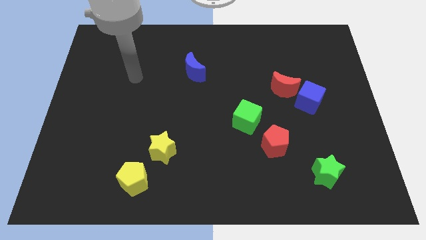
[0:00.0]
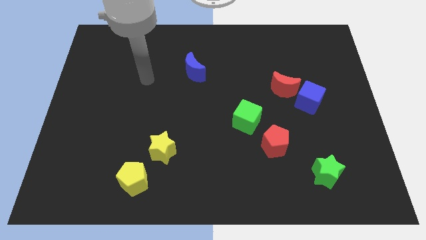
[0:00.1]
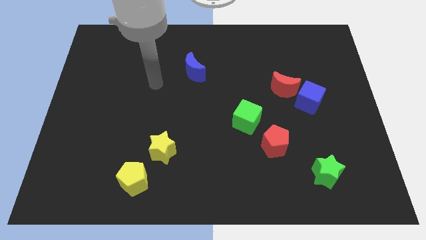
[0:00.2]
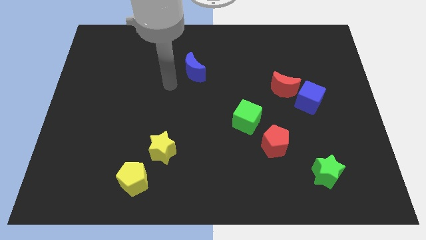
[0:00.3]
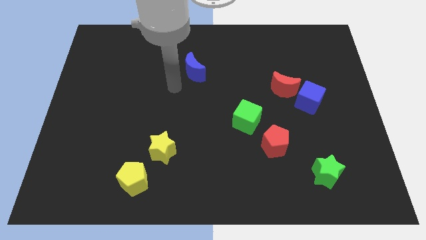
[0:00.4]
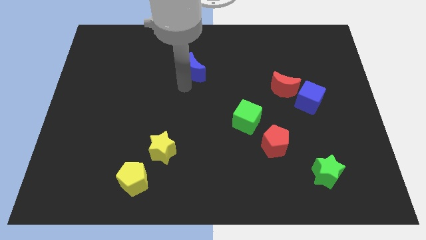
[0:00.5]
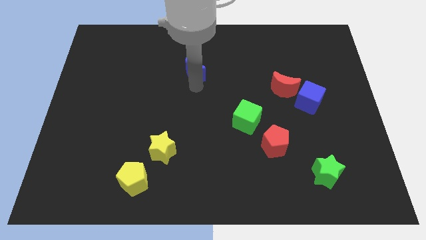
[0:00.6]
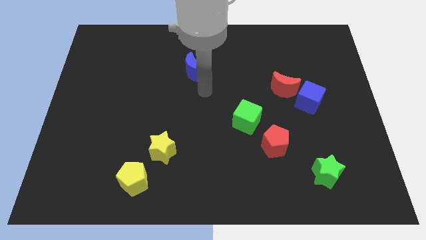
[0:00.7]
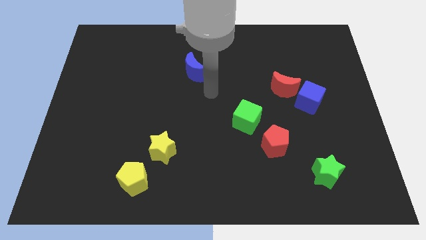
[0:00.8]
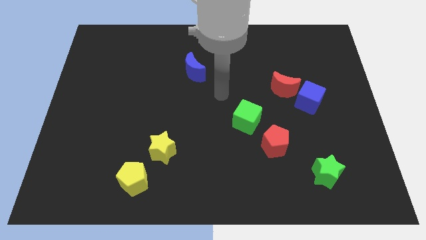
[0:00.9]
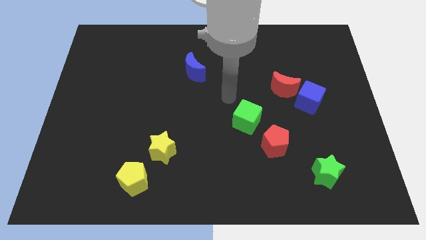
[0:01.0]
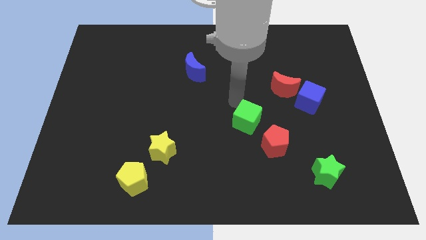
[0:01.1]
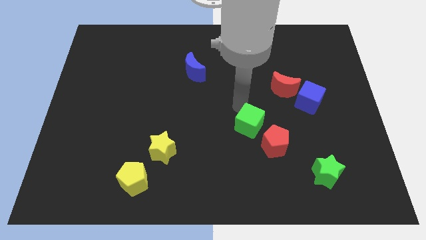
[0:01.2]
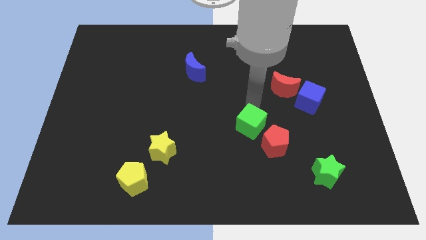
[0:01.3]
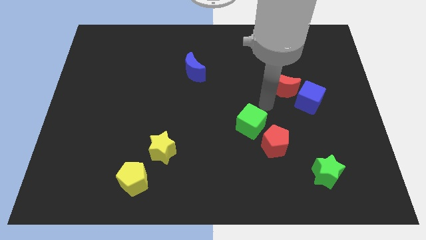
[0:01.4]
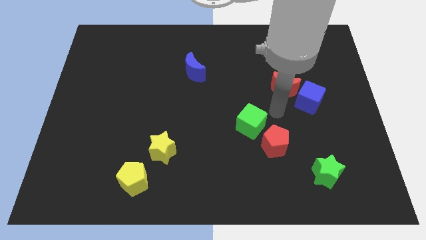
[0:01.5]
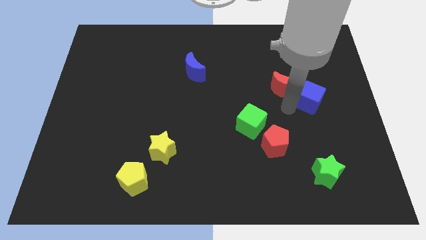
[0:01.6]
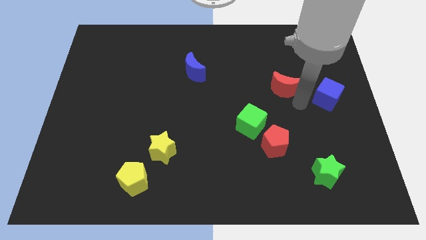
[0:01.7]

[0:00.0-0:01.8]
separate the red moon from the blue cube

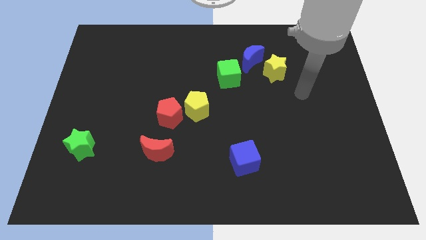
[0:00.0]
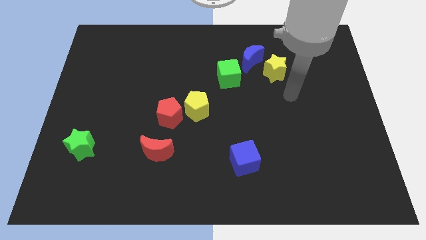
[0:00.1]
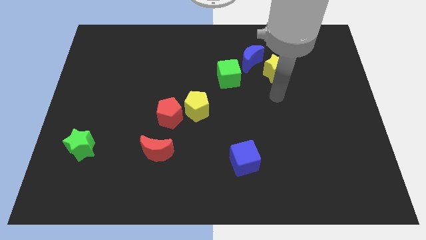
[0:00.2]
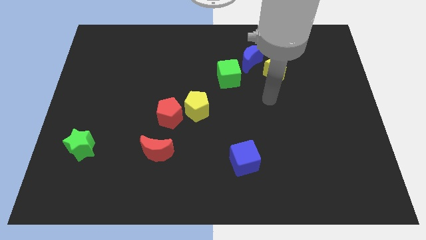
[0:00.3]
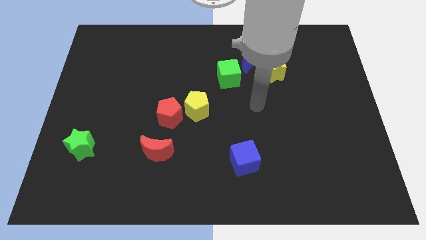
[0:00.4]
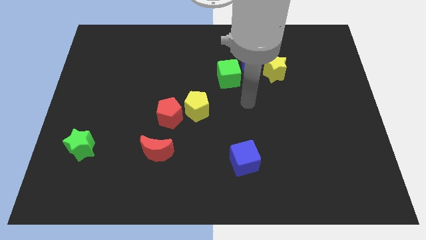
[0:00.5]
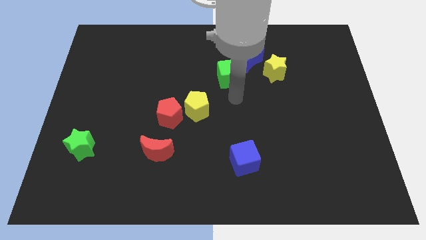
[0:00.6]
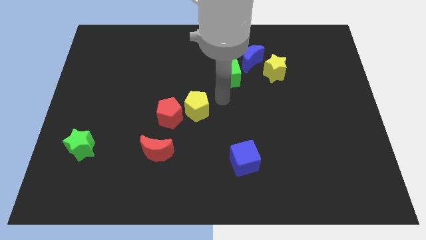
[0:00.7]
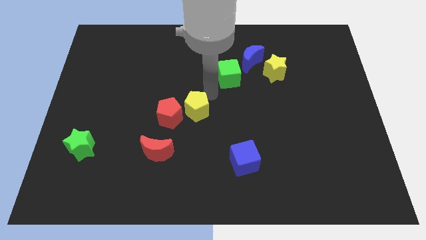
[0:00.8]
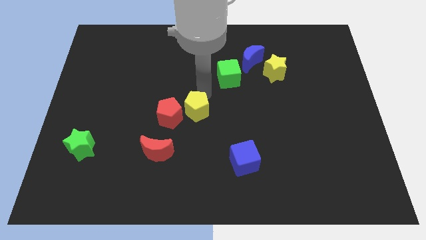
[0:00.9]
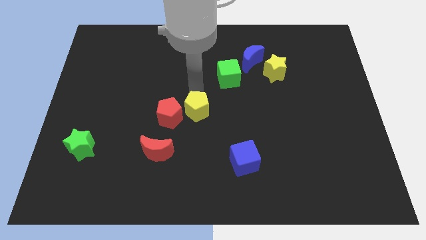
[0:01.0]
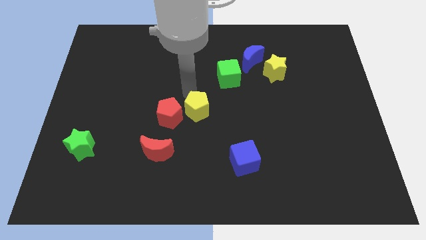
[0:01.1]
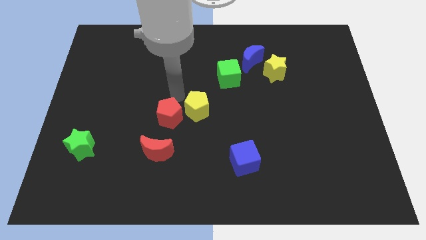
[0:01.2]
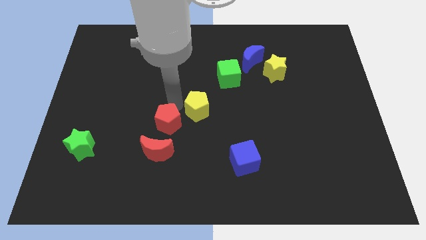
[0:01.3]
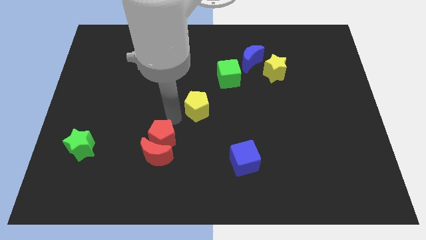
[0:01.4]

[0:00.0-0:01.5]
pull the yellow pentagon apart from the red pentagon

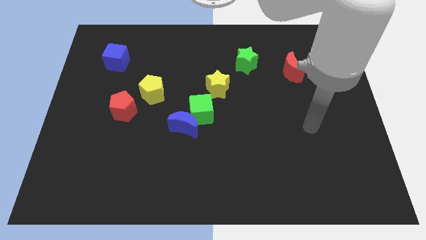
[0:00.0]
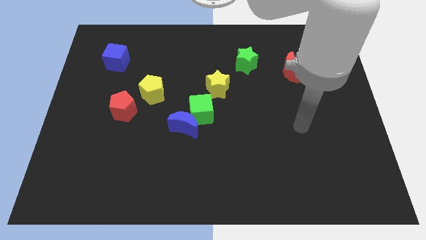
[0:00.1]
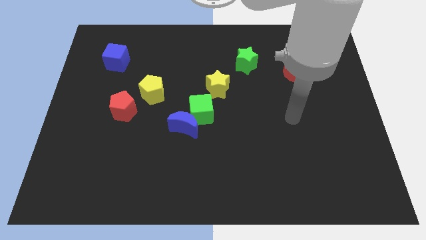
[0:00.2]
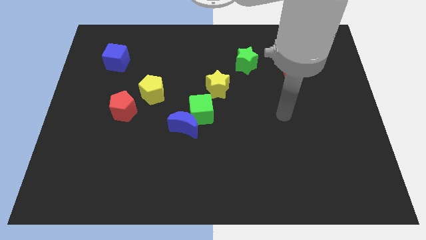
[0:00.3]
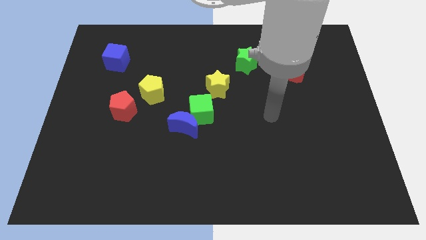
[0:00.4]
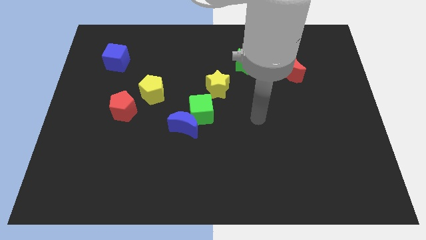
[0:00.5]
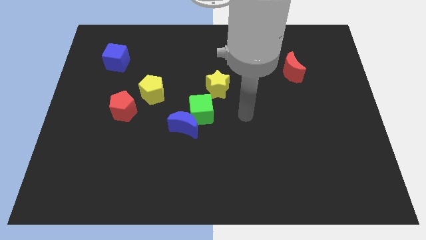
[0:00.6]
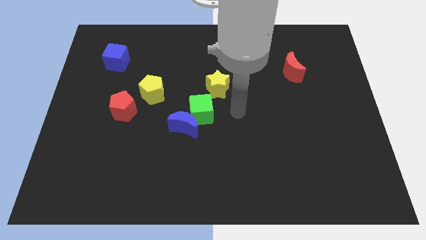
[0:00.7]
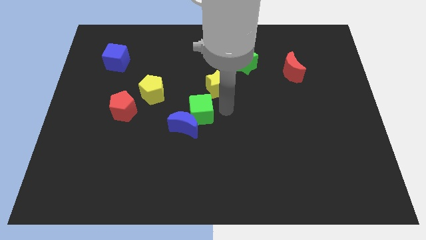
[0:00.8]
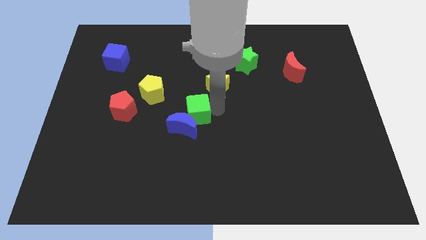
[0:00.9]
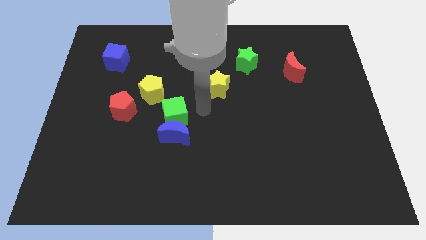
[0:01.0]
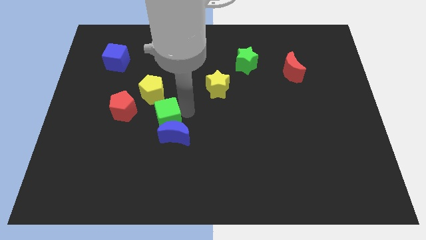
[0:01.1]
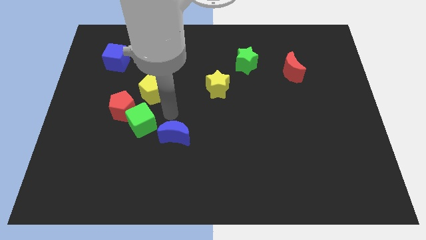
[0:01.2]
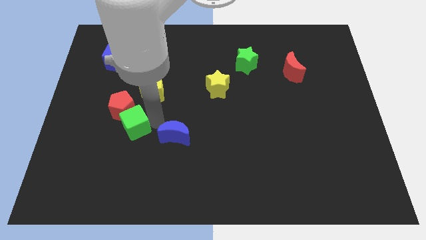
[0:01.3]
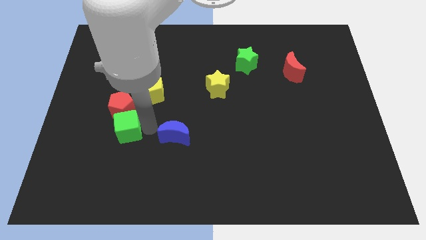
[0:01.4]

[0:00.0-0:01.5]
move the blue moon away from the green cube

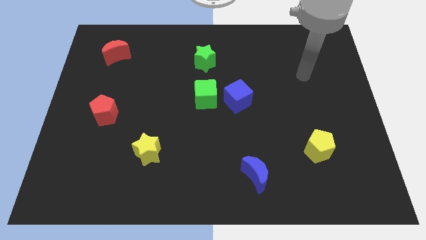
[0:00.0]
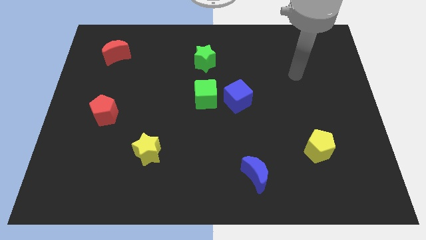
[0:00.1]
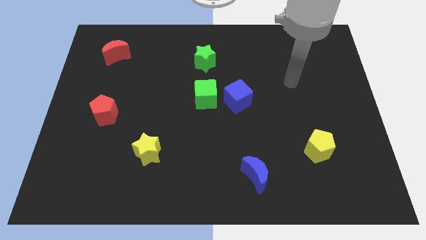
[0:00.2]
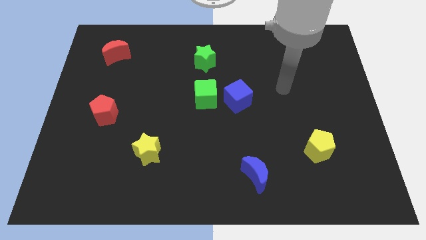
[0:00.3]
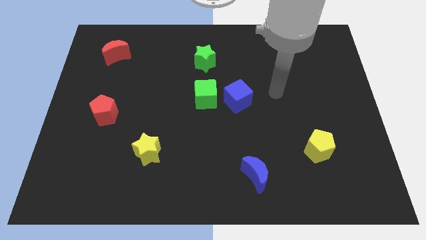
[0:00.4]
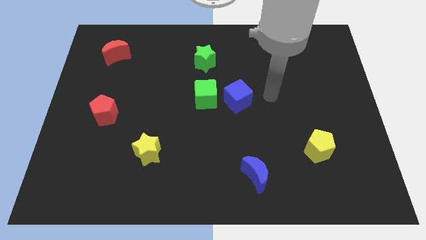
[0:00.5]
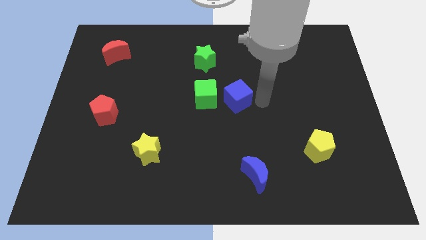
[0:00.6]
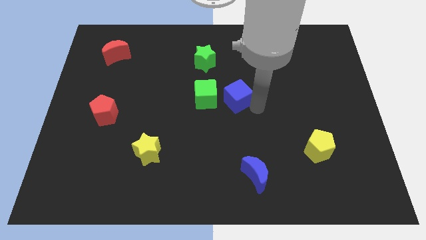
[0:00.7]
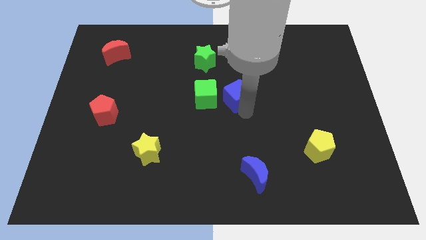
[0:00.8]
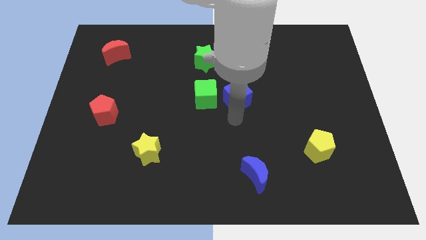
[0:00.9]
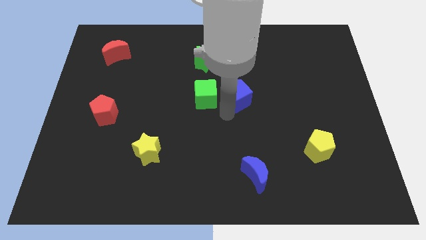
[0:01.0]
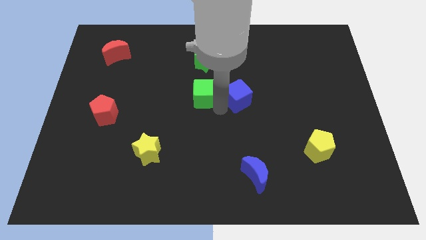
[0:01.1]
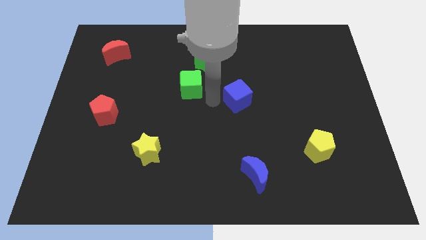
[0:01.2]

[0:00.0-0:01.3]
pull the blue cube apart from the green cube

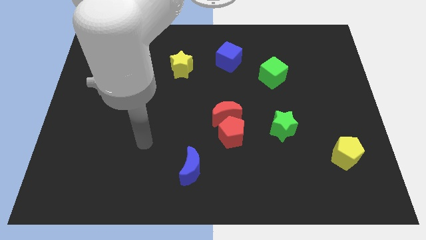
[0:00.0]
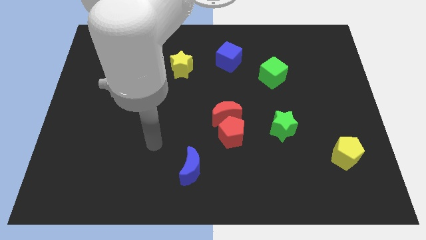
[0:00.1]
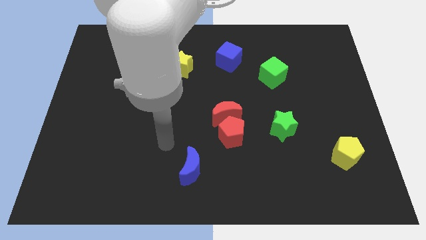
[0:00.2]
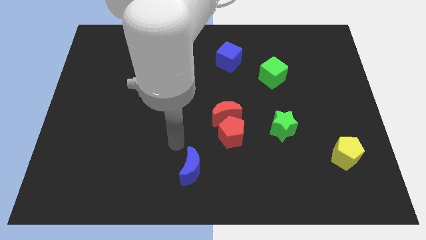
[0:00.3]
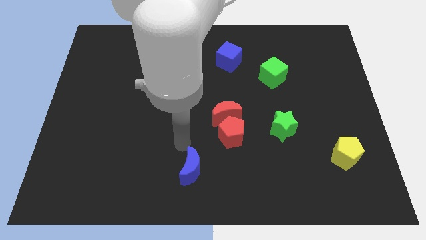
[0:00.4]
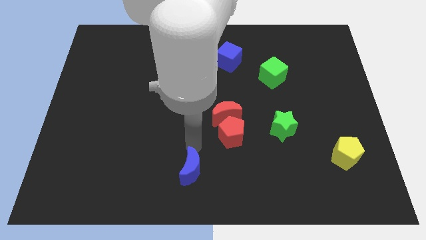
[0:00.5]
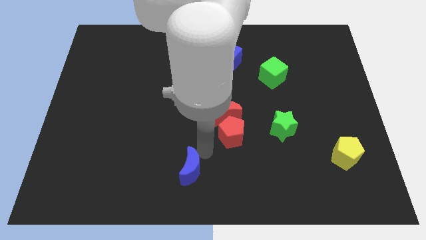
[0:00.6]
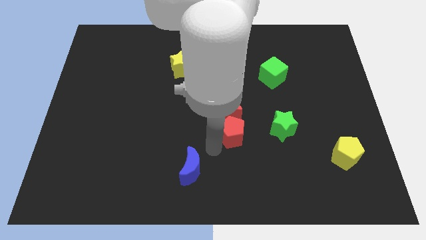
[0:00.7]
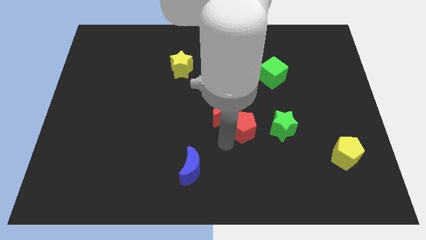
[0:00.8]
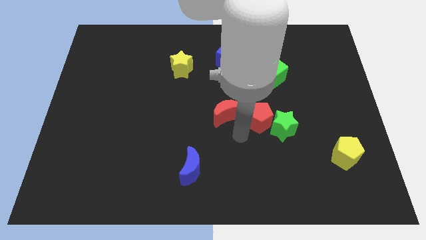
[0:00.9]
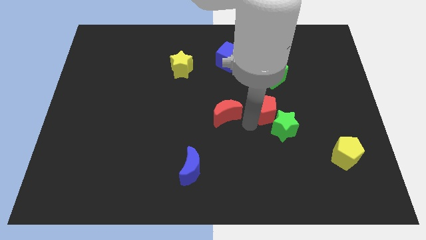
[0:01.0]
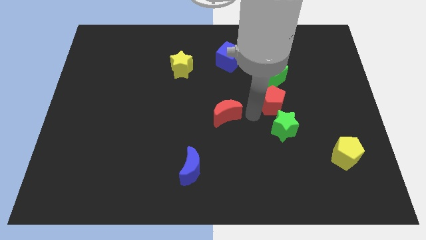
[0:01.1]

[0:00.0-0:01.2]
separate the red moon from the red pentagon

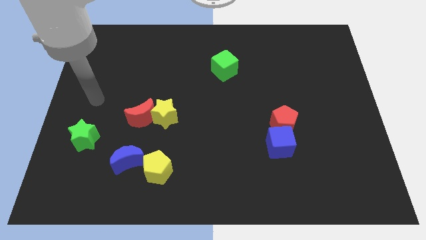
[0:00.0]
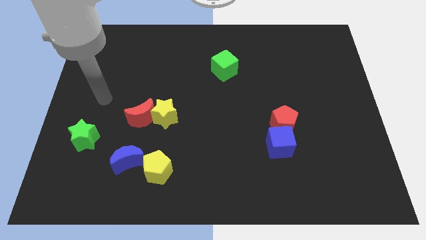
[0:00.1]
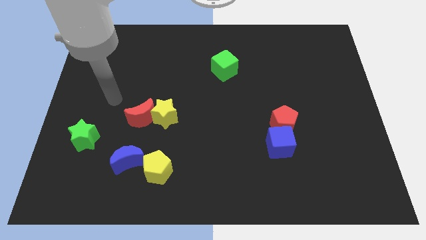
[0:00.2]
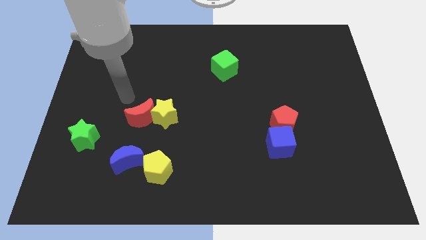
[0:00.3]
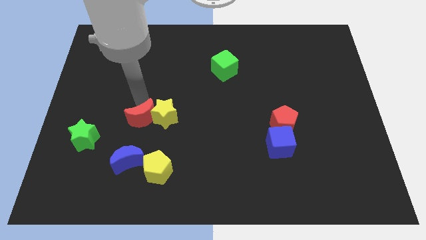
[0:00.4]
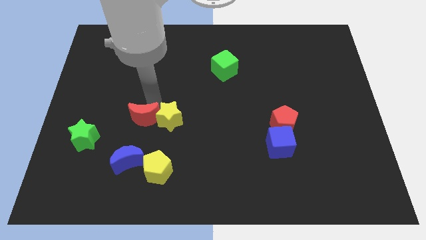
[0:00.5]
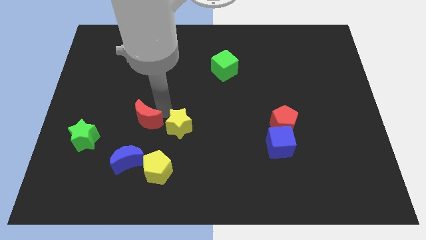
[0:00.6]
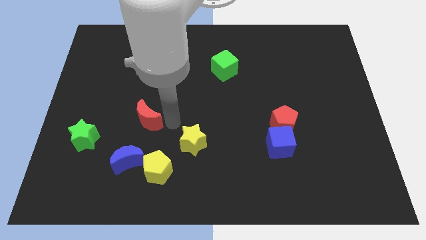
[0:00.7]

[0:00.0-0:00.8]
separate the red moon from the yellow star

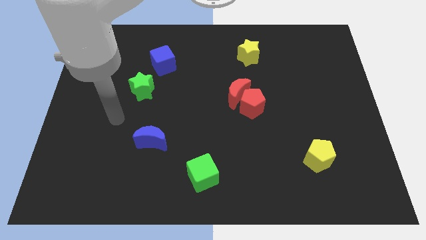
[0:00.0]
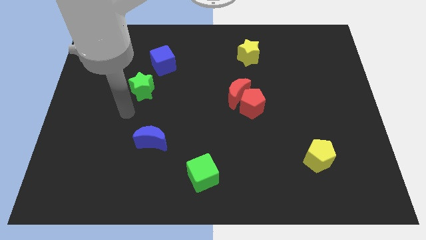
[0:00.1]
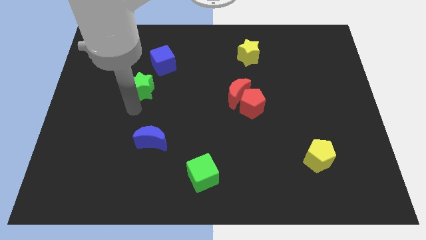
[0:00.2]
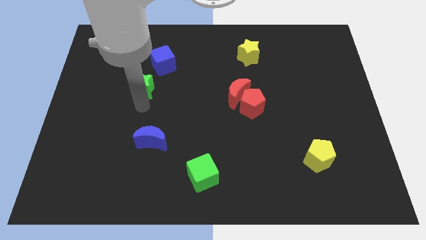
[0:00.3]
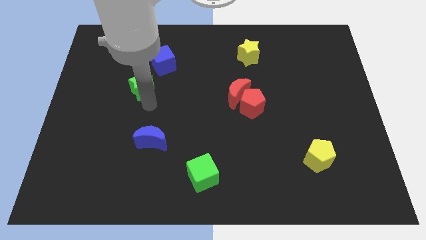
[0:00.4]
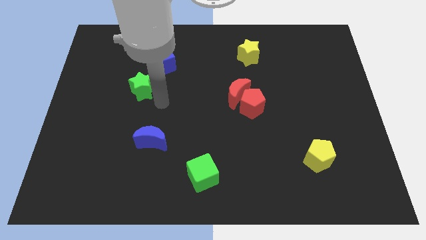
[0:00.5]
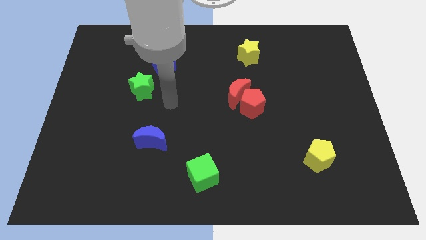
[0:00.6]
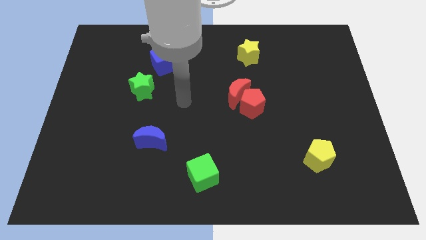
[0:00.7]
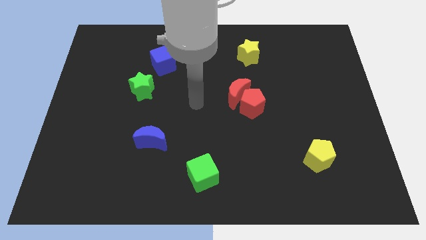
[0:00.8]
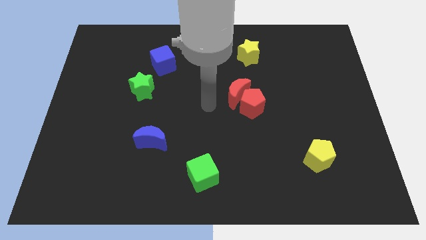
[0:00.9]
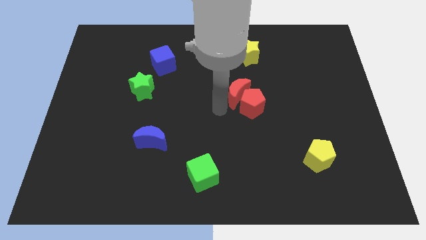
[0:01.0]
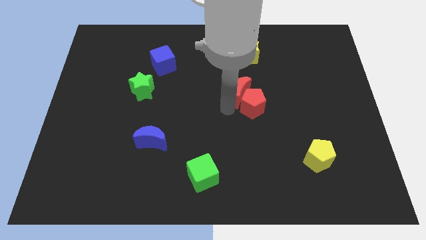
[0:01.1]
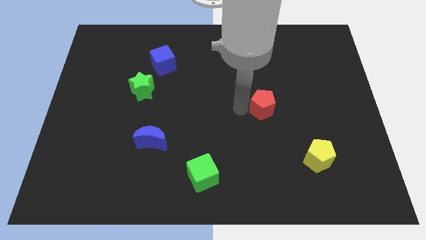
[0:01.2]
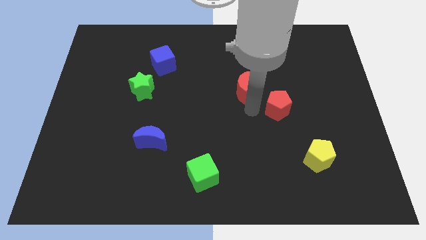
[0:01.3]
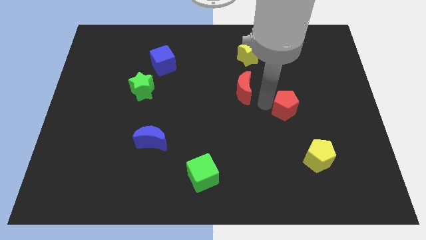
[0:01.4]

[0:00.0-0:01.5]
pull the red moon apart from the red pentagon
